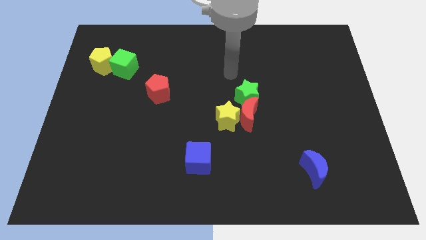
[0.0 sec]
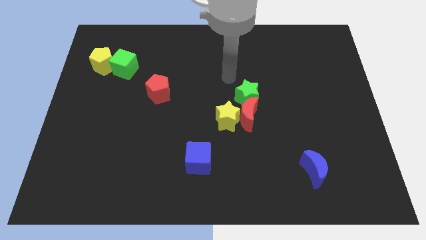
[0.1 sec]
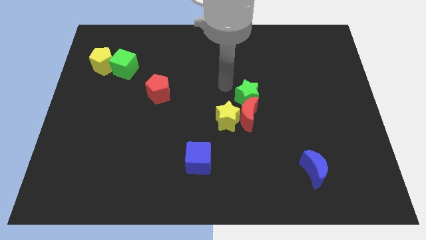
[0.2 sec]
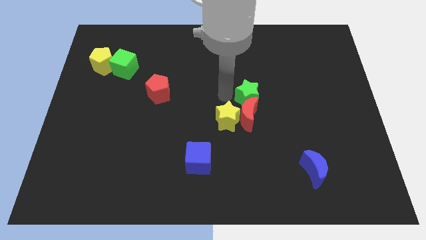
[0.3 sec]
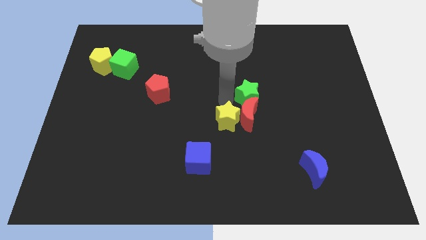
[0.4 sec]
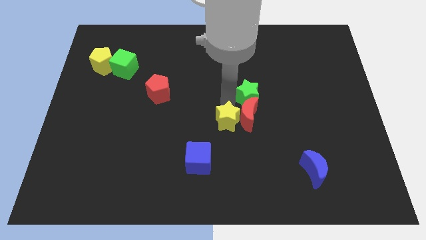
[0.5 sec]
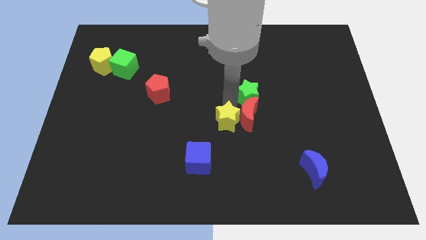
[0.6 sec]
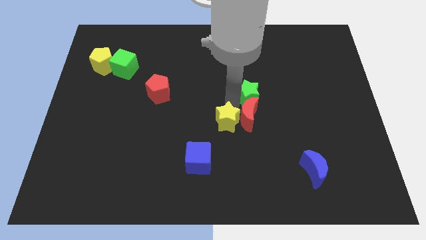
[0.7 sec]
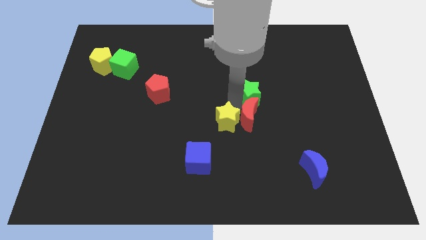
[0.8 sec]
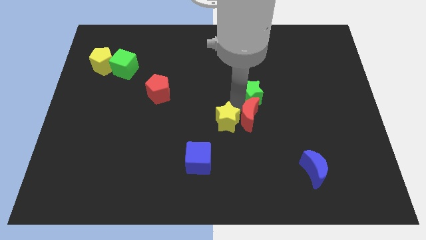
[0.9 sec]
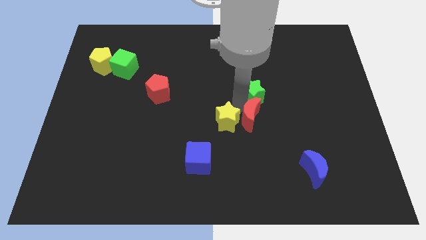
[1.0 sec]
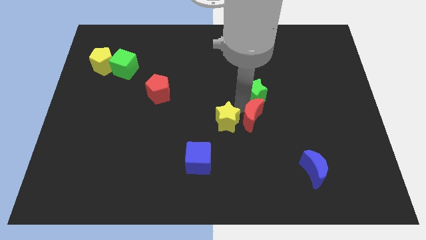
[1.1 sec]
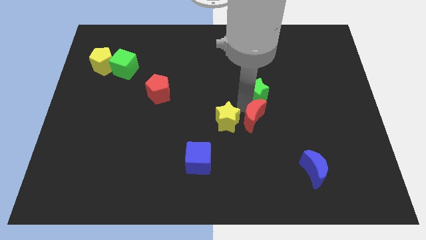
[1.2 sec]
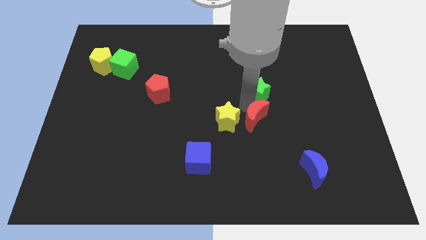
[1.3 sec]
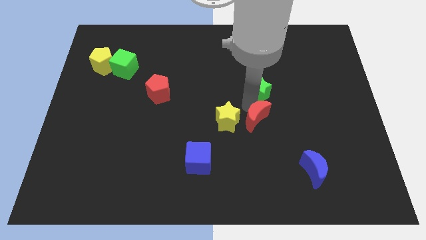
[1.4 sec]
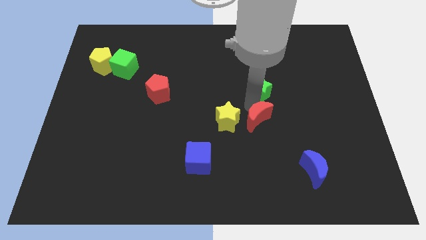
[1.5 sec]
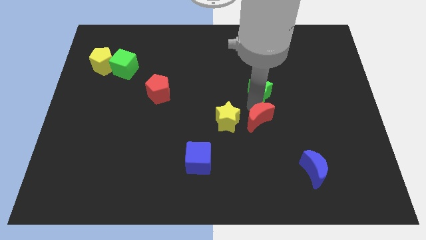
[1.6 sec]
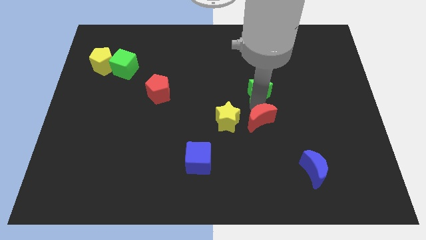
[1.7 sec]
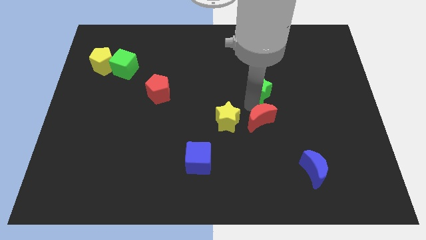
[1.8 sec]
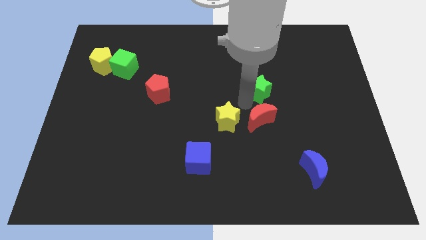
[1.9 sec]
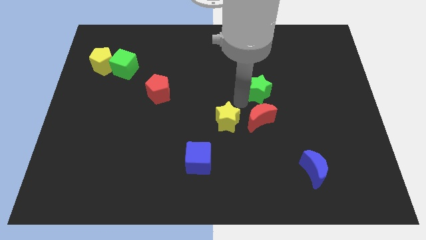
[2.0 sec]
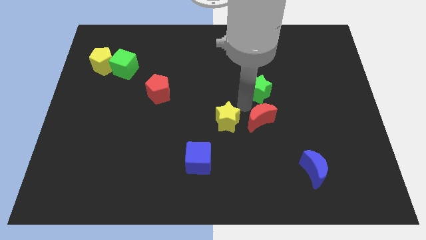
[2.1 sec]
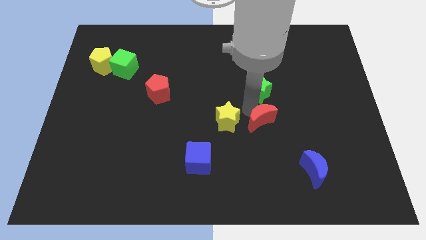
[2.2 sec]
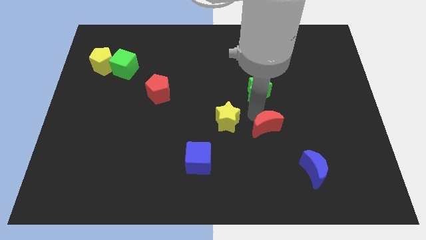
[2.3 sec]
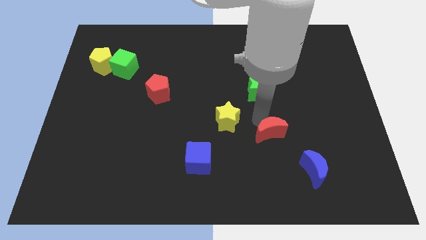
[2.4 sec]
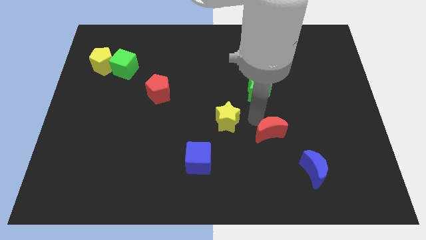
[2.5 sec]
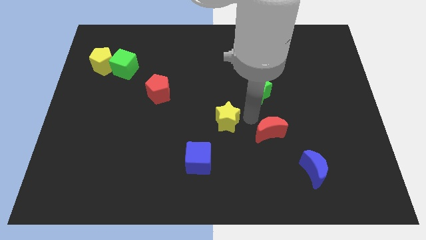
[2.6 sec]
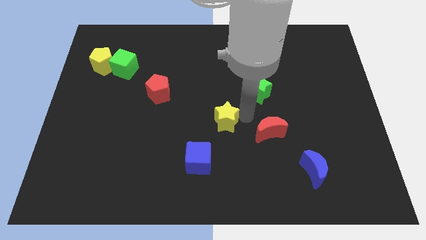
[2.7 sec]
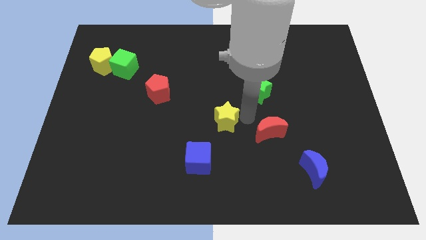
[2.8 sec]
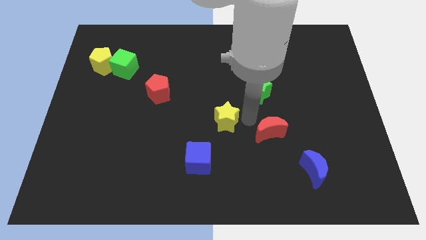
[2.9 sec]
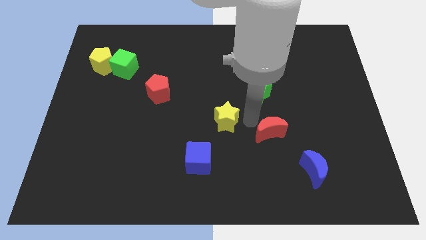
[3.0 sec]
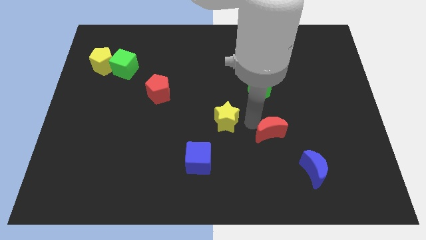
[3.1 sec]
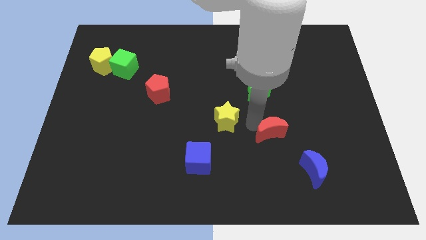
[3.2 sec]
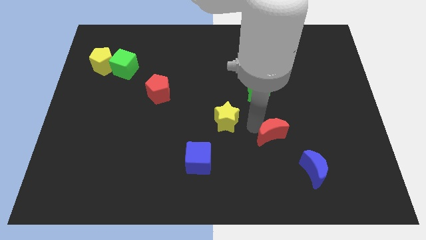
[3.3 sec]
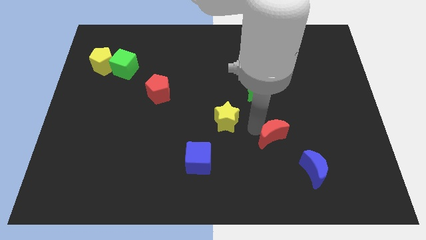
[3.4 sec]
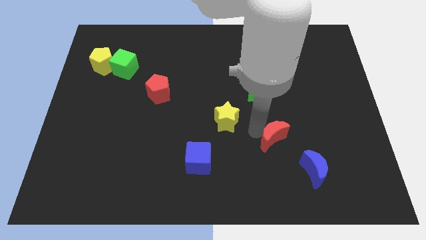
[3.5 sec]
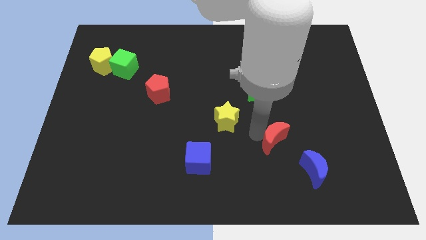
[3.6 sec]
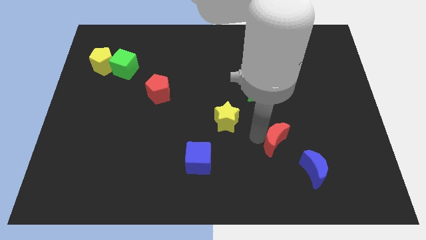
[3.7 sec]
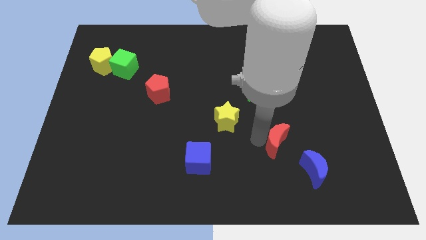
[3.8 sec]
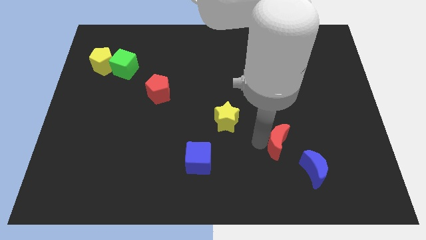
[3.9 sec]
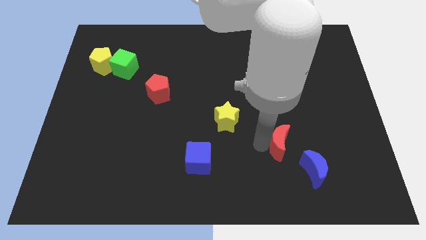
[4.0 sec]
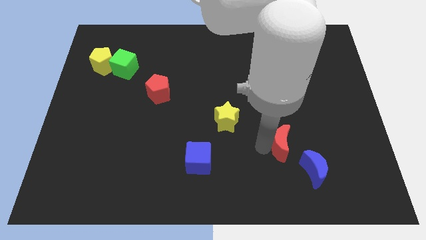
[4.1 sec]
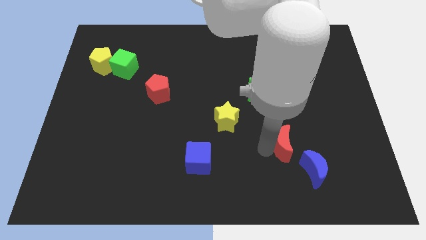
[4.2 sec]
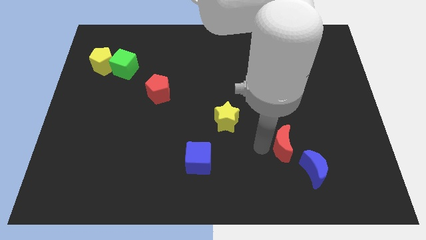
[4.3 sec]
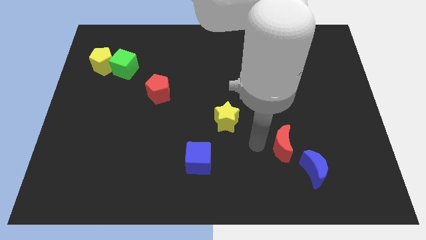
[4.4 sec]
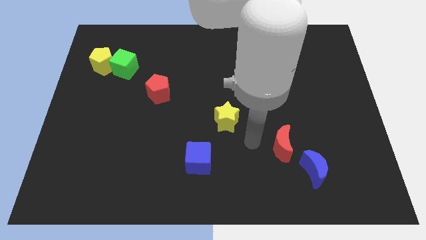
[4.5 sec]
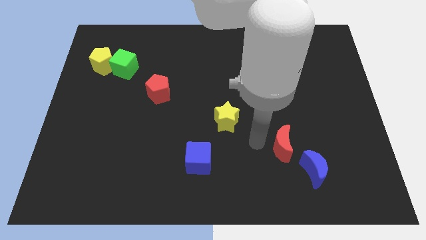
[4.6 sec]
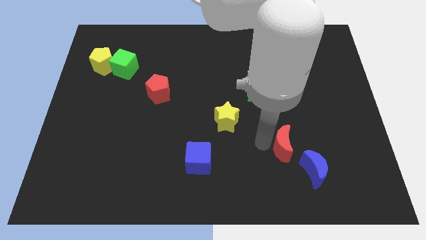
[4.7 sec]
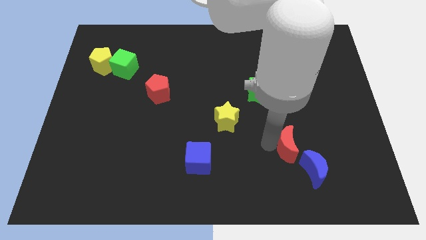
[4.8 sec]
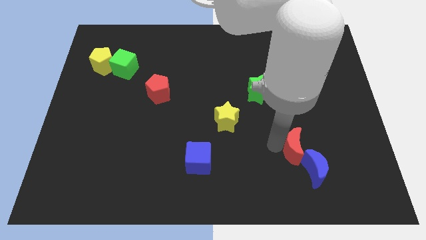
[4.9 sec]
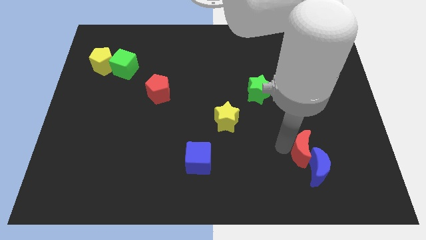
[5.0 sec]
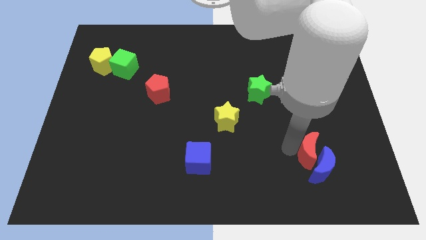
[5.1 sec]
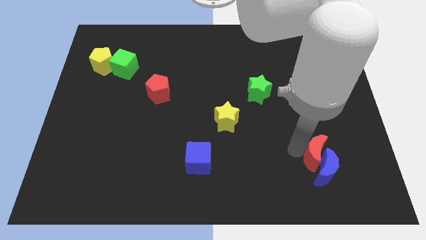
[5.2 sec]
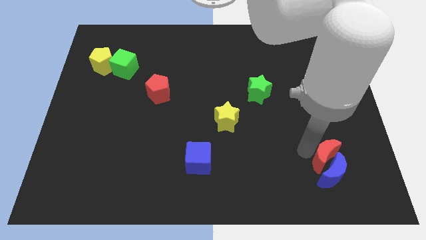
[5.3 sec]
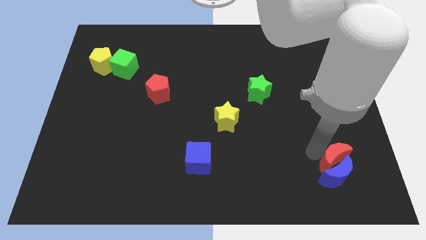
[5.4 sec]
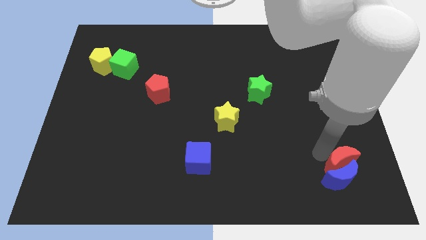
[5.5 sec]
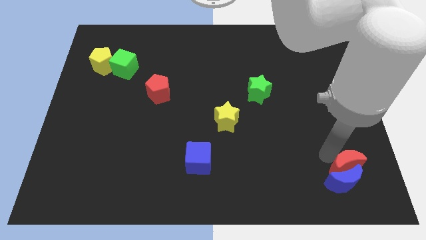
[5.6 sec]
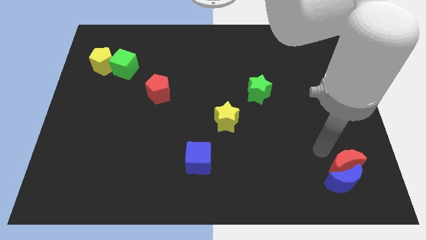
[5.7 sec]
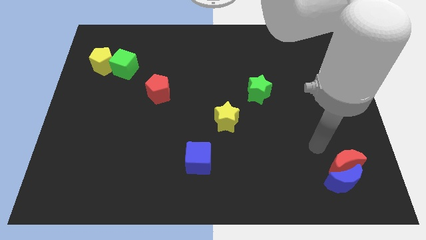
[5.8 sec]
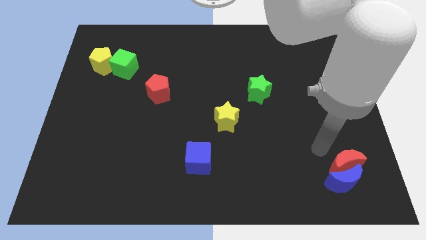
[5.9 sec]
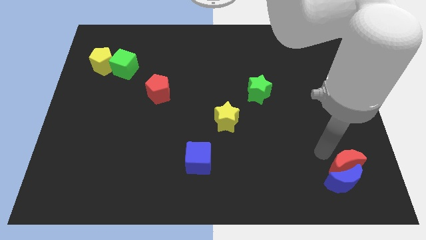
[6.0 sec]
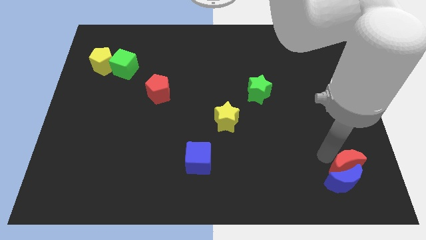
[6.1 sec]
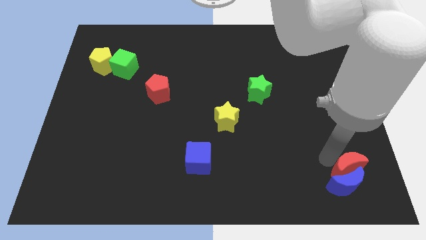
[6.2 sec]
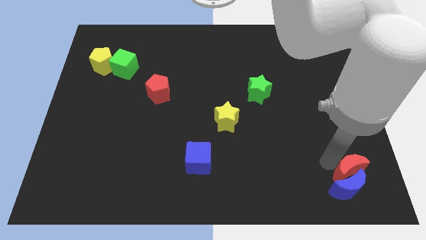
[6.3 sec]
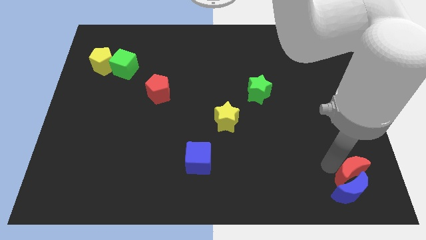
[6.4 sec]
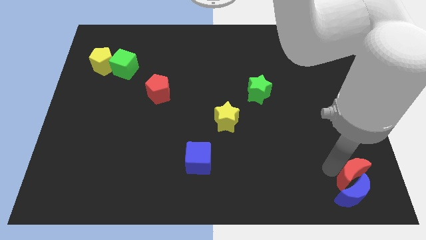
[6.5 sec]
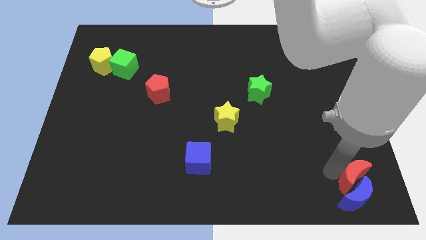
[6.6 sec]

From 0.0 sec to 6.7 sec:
put the red moon to the bottom right corner
